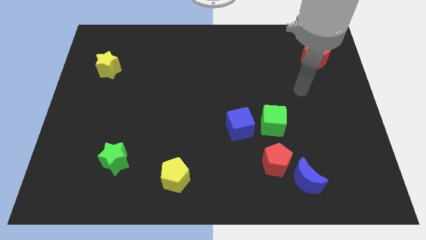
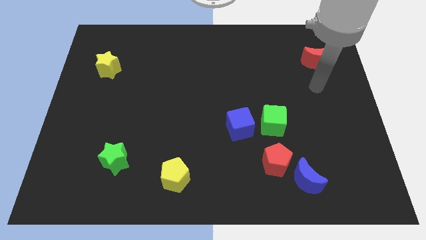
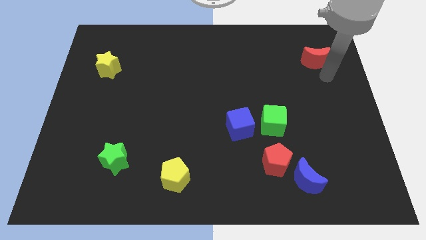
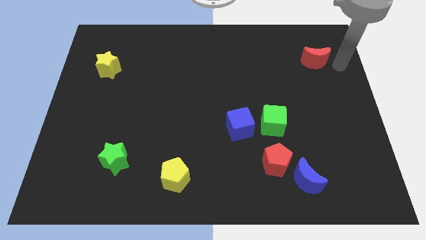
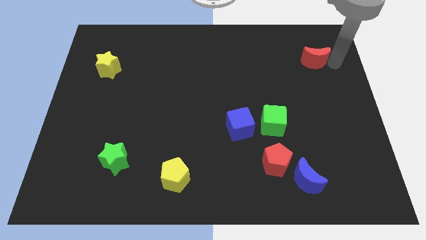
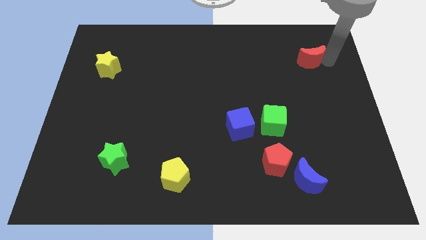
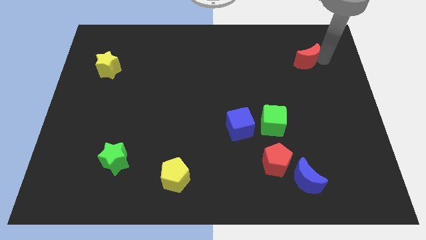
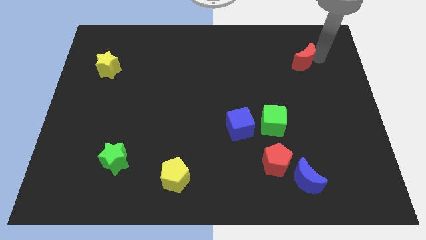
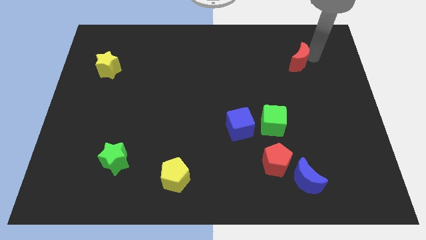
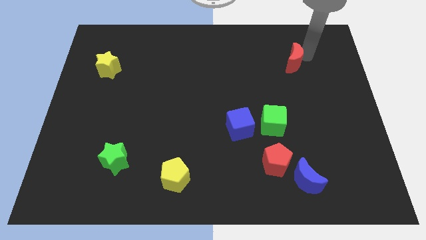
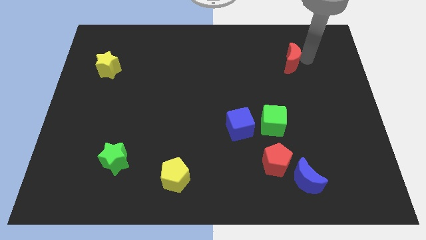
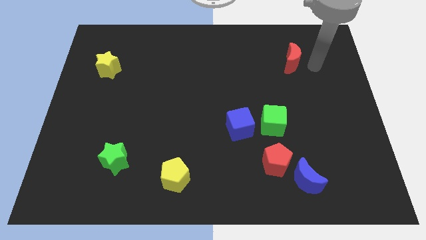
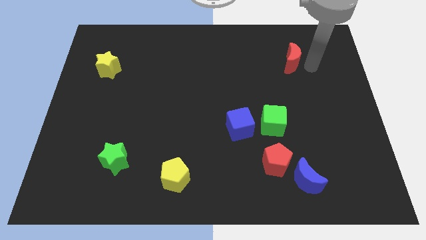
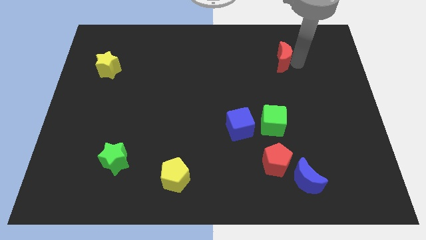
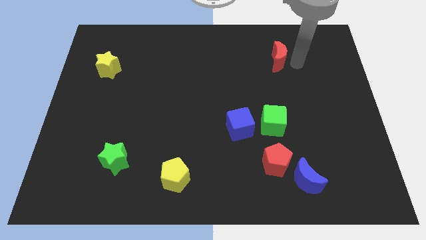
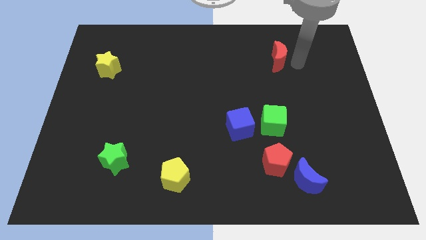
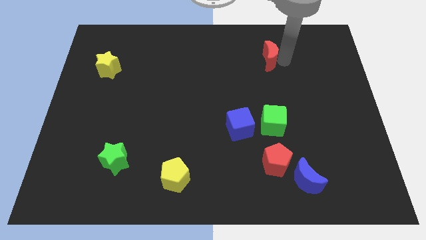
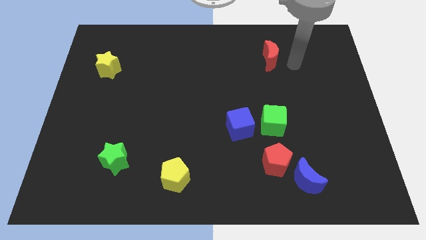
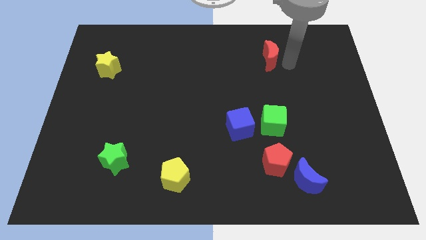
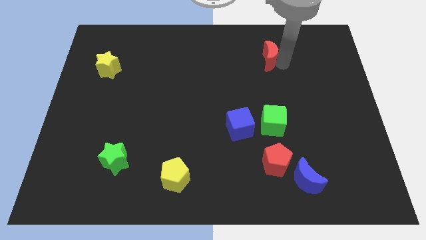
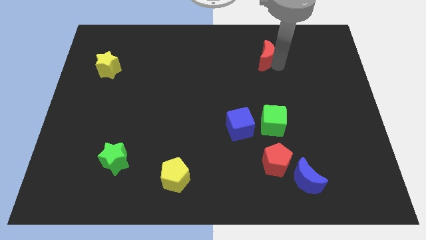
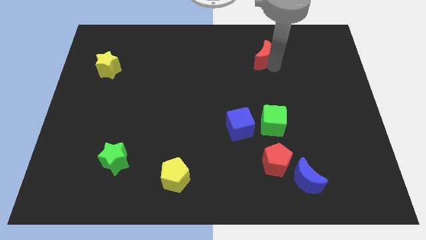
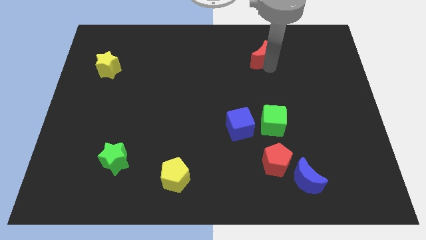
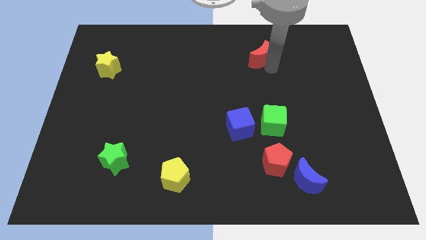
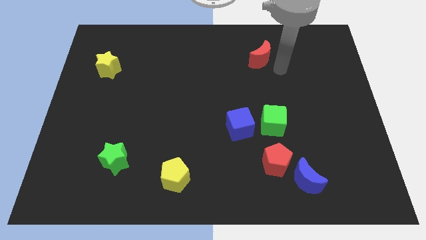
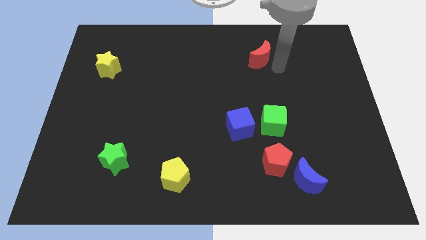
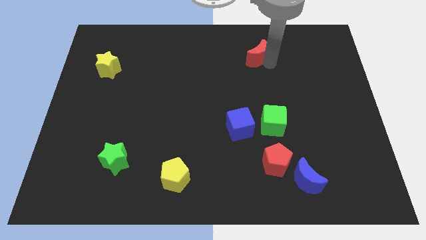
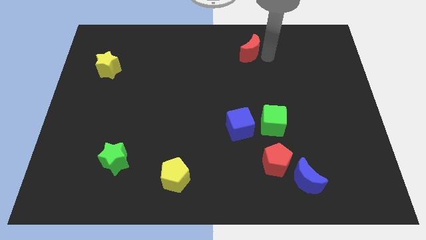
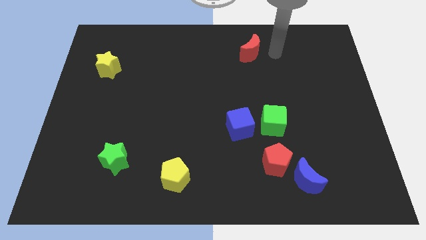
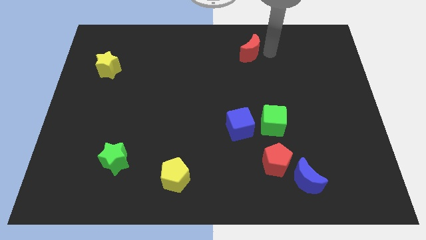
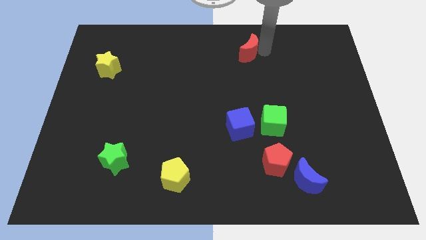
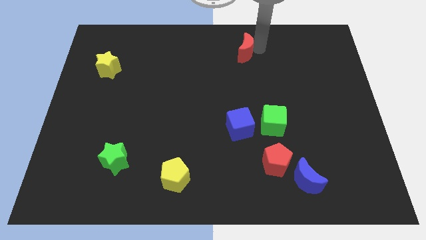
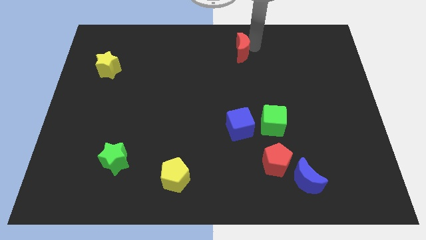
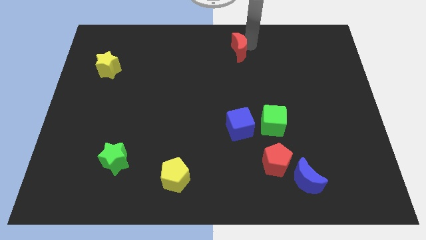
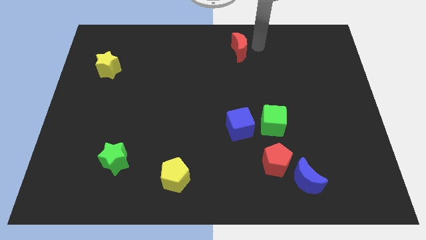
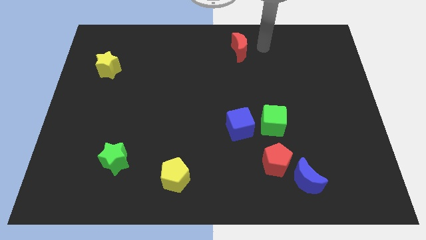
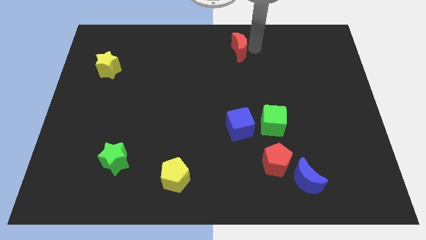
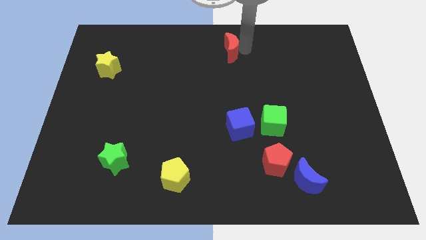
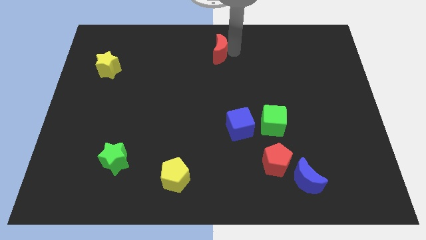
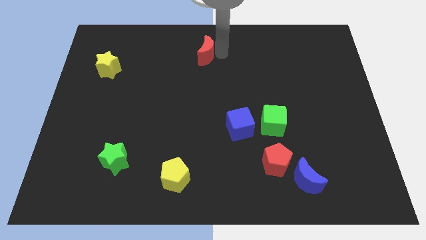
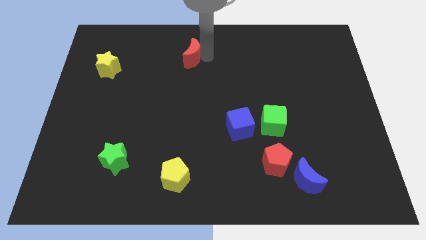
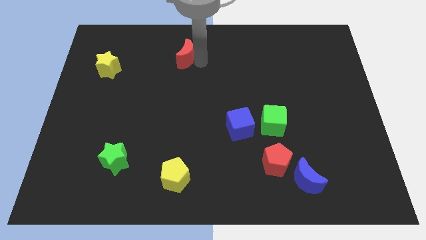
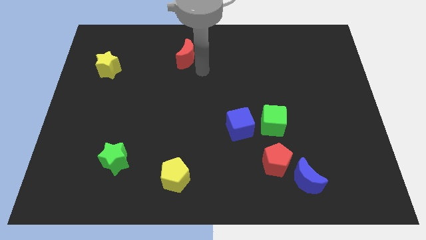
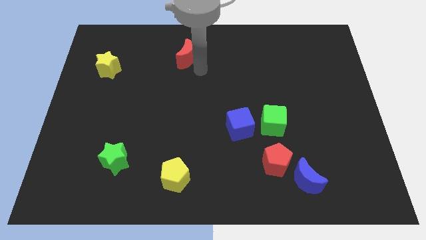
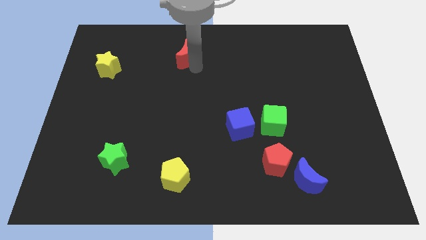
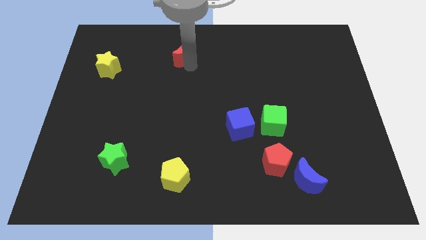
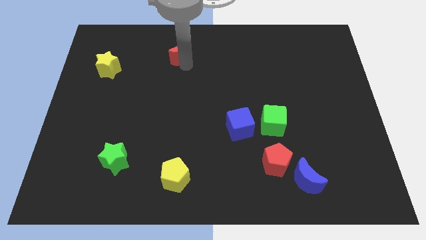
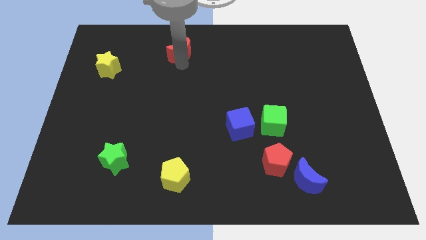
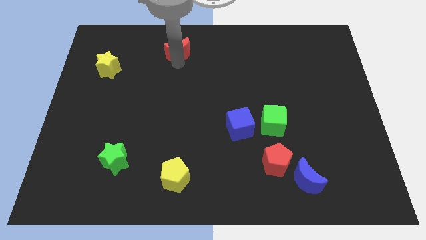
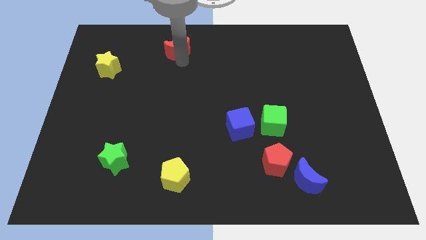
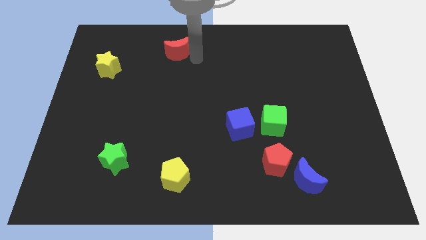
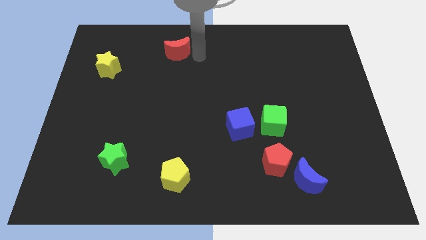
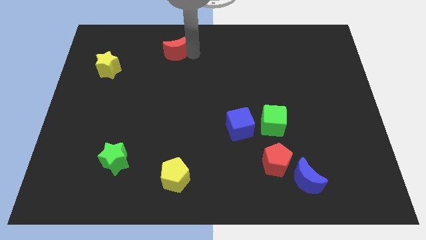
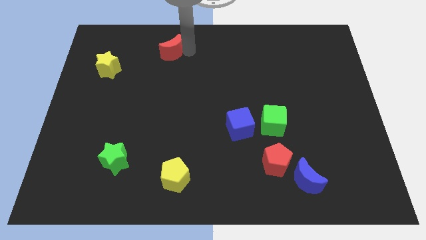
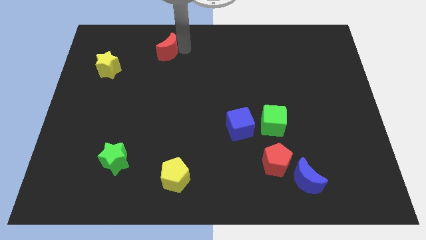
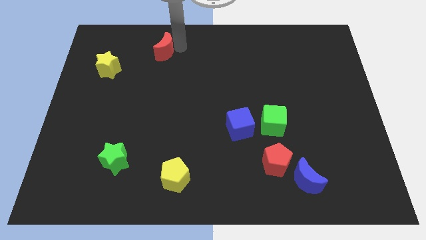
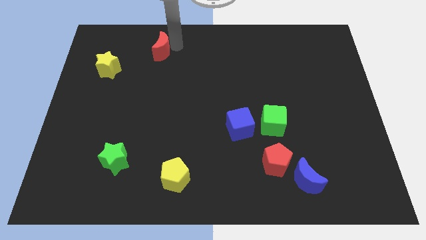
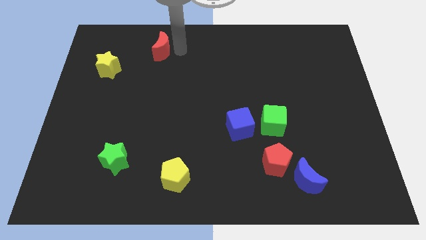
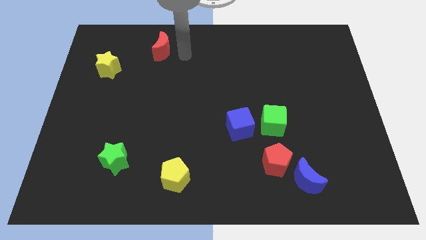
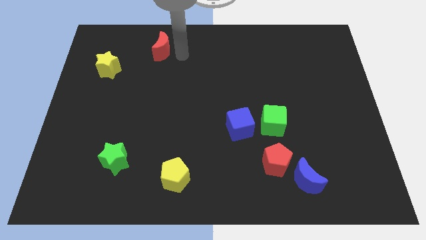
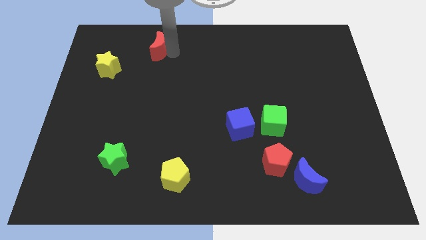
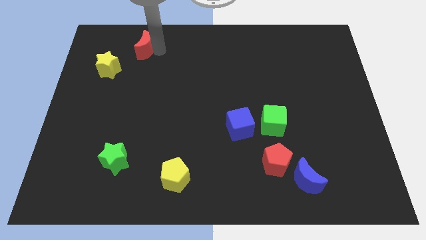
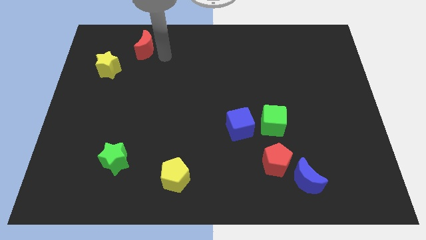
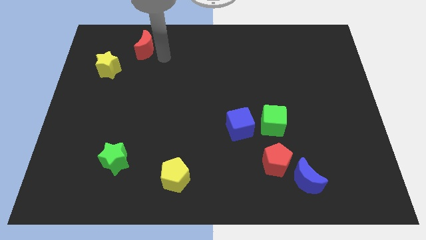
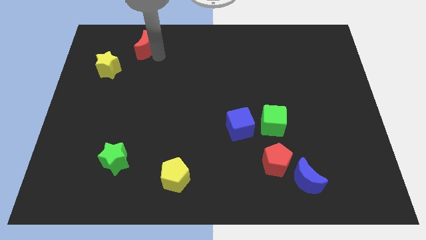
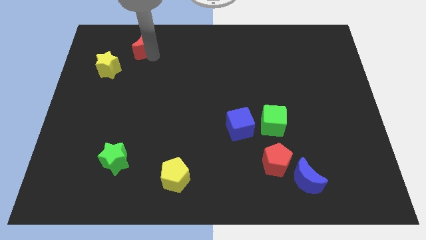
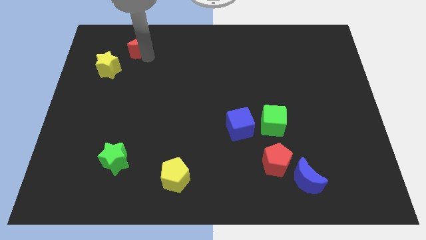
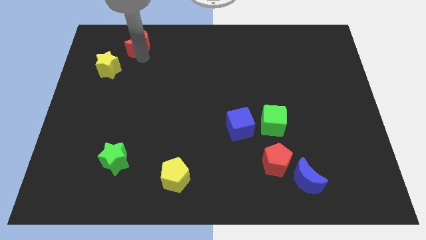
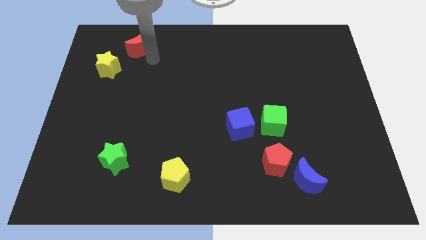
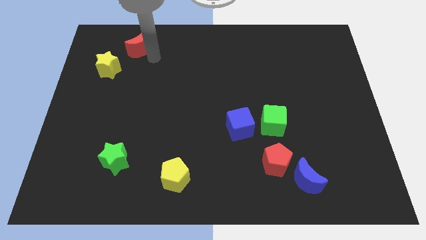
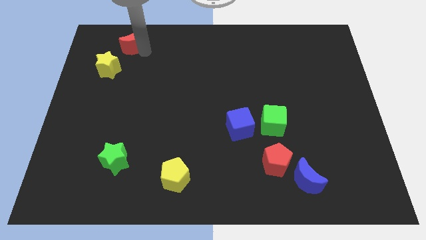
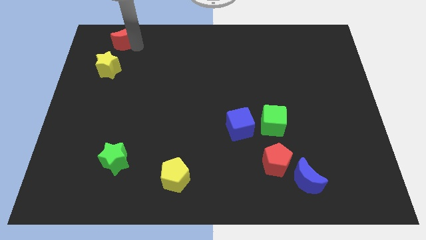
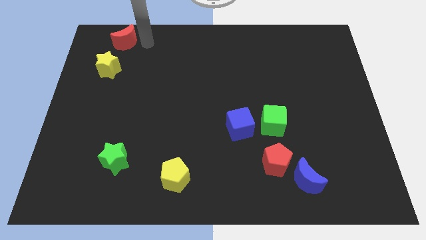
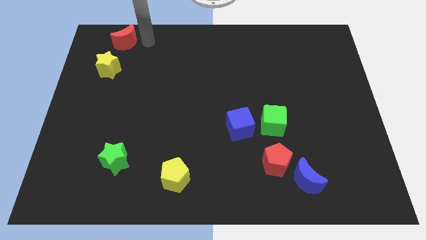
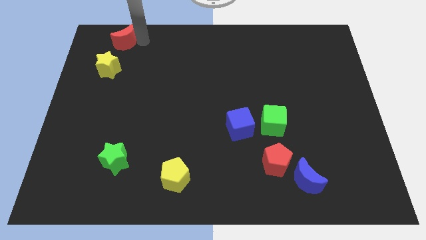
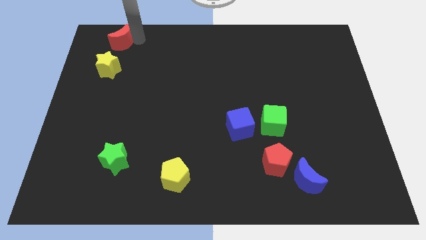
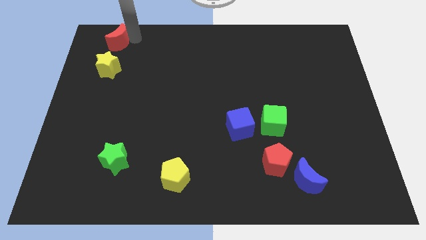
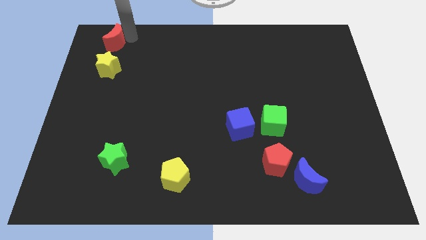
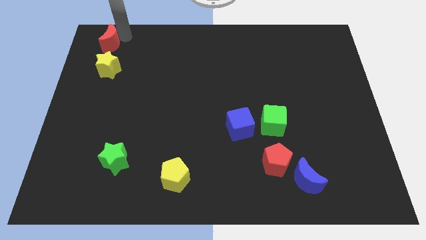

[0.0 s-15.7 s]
put the red moon to the top left of the board
